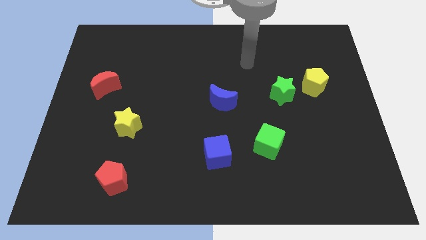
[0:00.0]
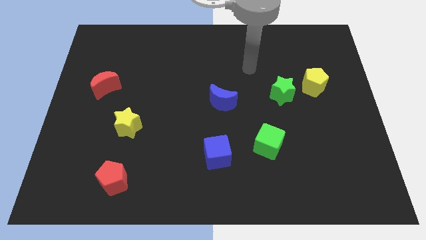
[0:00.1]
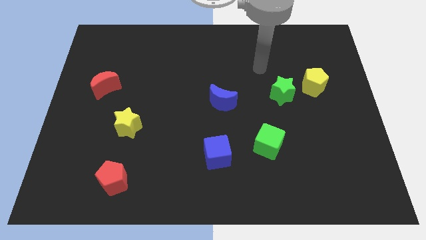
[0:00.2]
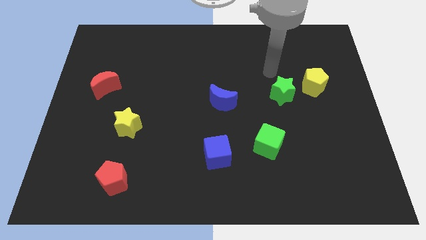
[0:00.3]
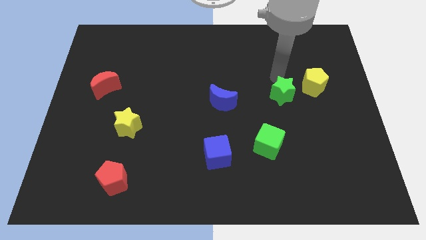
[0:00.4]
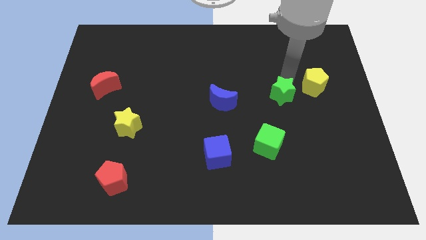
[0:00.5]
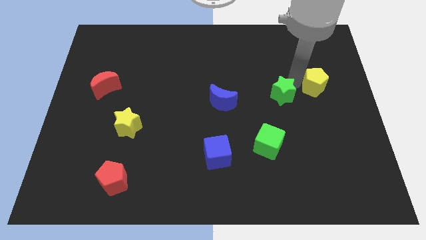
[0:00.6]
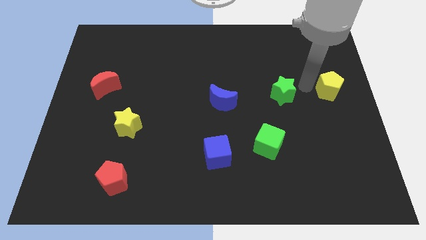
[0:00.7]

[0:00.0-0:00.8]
separate the green star from the yellow pentagon

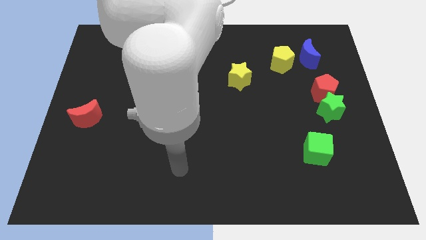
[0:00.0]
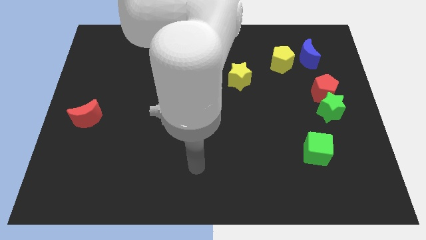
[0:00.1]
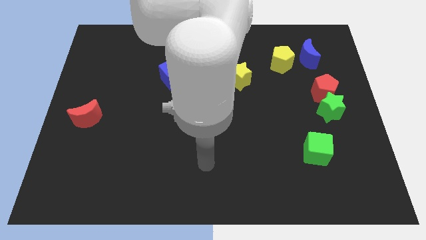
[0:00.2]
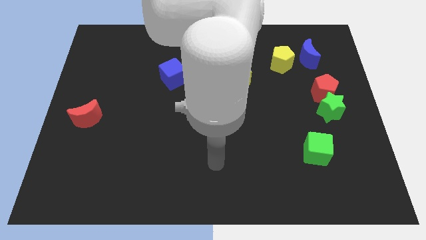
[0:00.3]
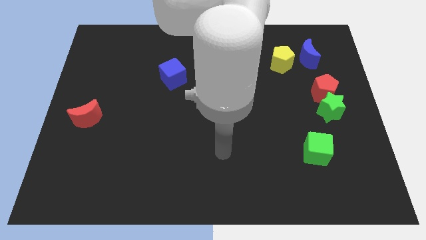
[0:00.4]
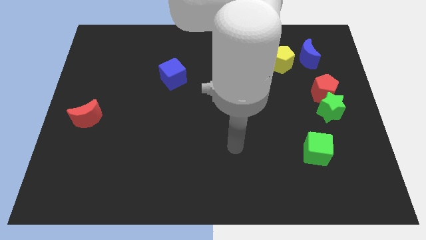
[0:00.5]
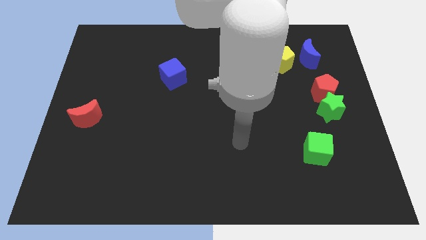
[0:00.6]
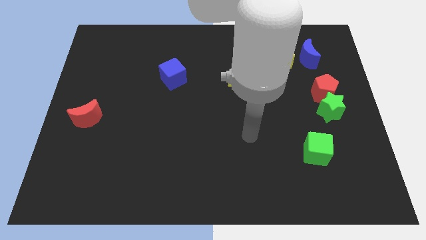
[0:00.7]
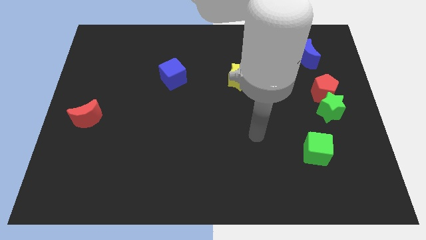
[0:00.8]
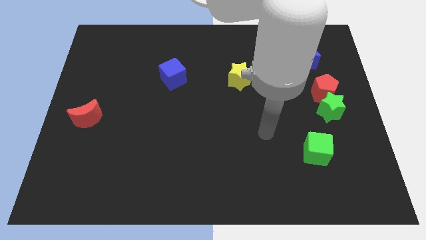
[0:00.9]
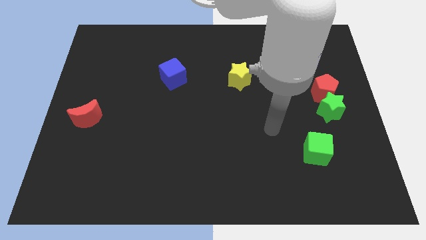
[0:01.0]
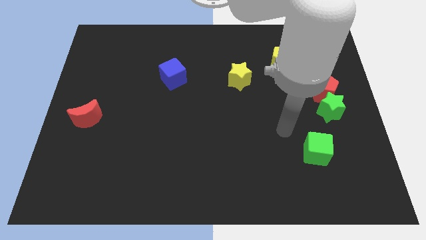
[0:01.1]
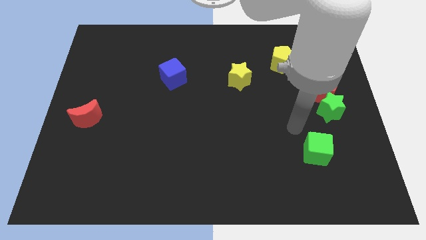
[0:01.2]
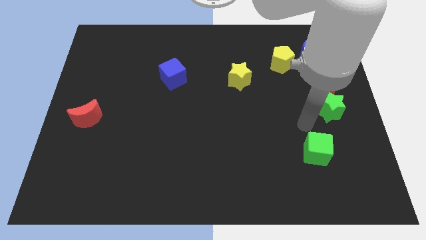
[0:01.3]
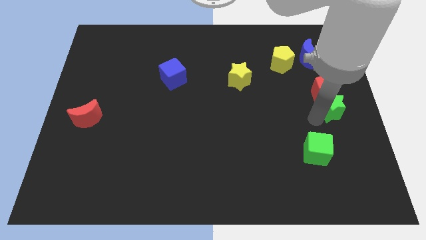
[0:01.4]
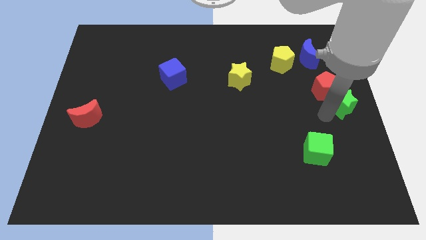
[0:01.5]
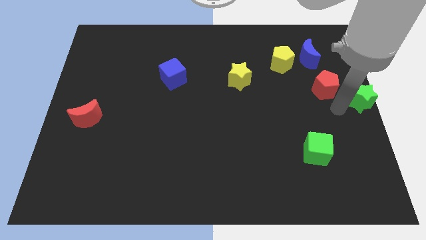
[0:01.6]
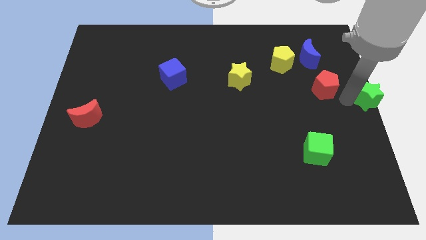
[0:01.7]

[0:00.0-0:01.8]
pull the red pentagon apart from the green star

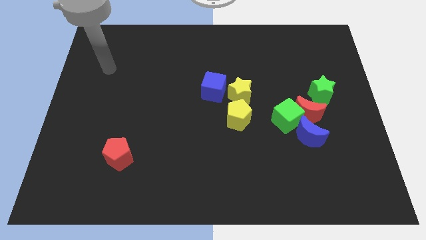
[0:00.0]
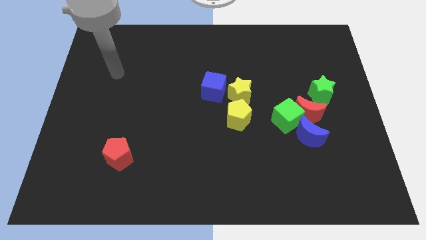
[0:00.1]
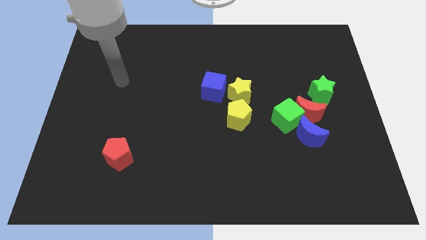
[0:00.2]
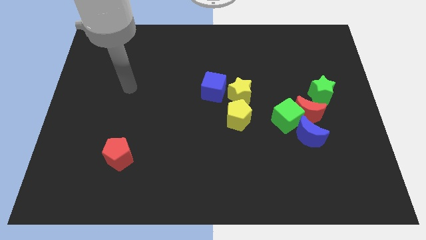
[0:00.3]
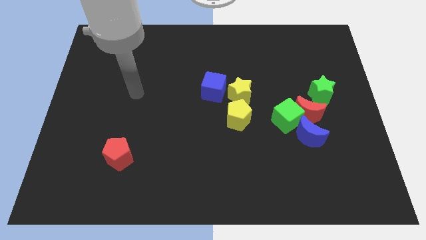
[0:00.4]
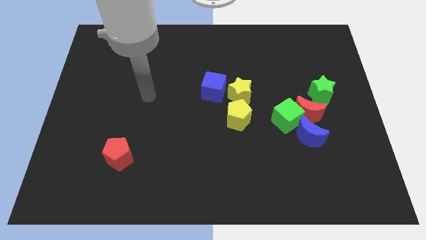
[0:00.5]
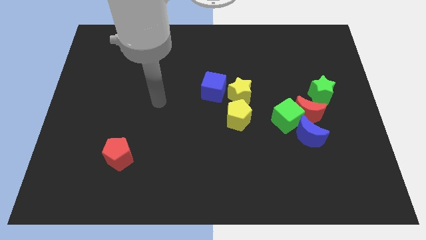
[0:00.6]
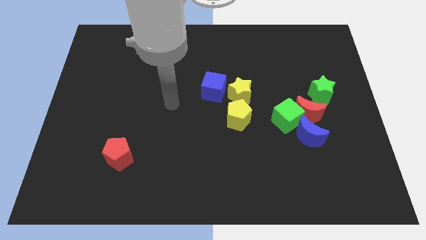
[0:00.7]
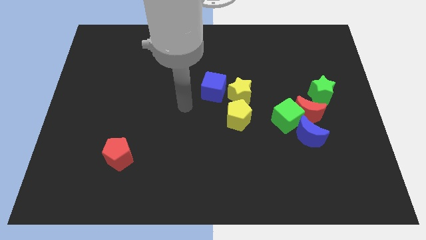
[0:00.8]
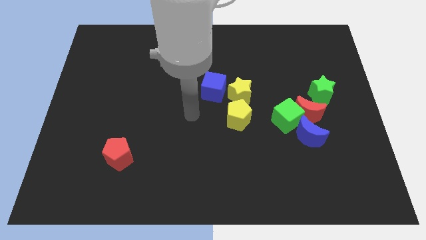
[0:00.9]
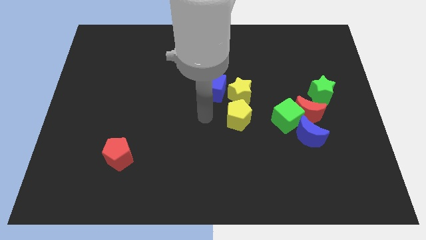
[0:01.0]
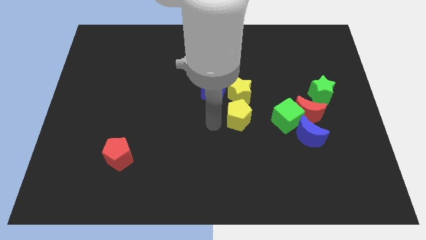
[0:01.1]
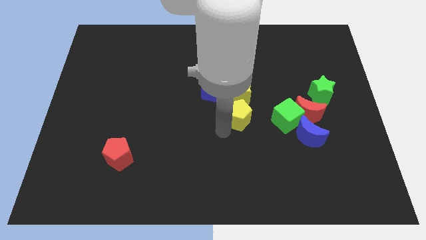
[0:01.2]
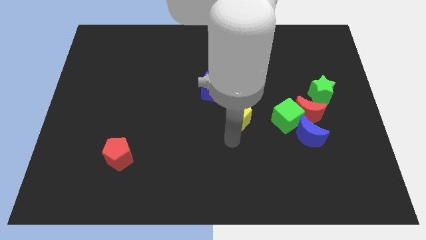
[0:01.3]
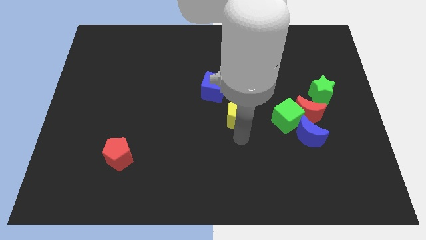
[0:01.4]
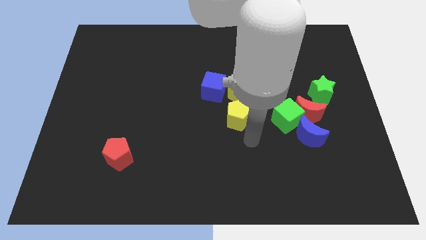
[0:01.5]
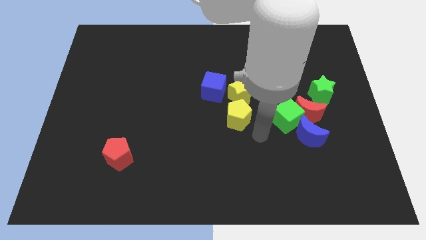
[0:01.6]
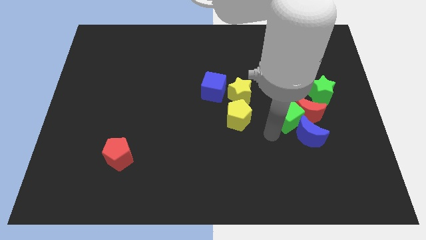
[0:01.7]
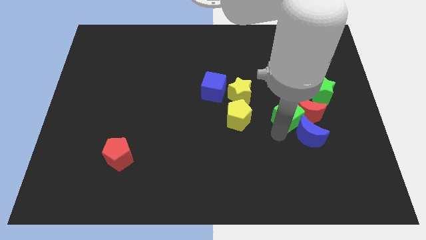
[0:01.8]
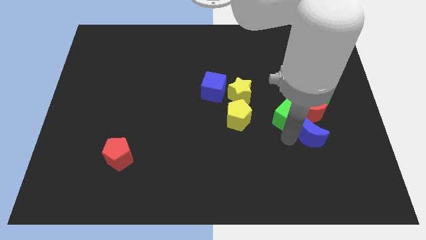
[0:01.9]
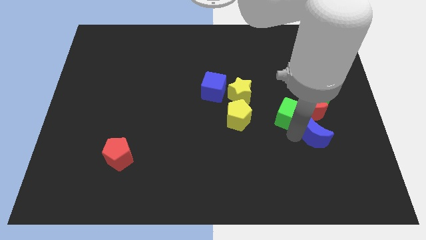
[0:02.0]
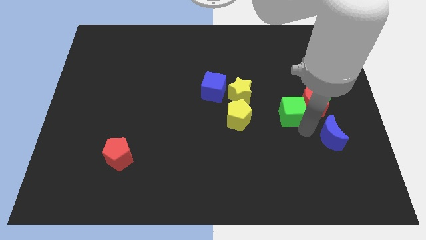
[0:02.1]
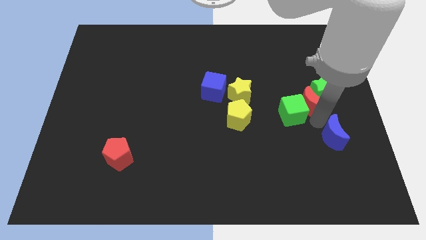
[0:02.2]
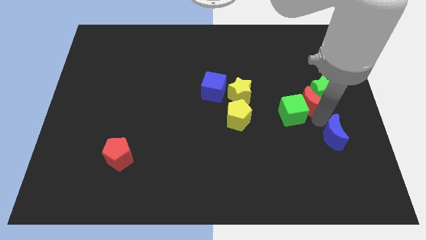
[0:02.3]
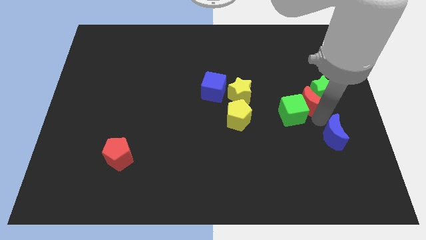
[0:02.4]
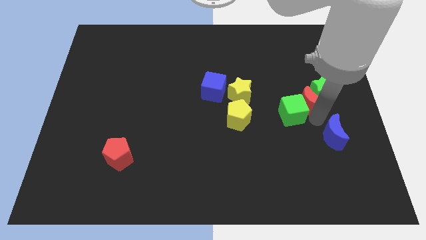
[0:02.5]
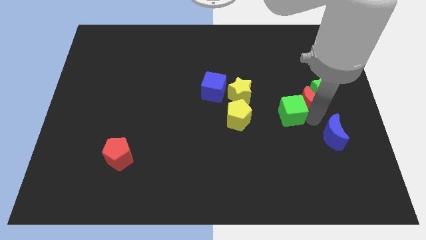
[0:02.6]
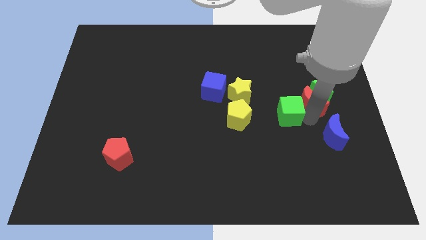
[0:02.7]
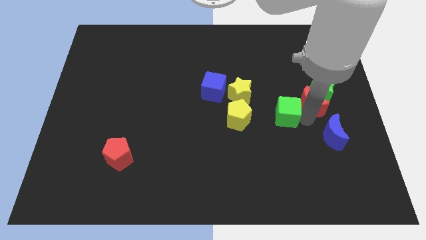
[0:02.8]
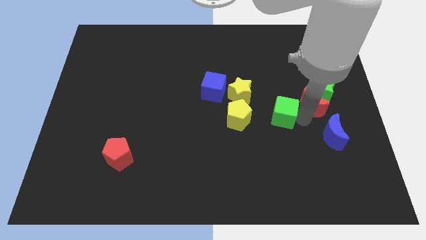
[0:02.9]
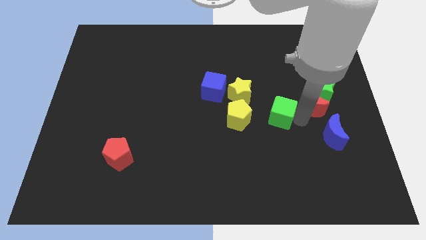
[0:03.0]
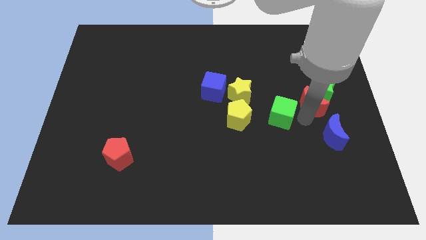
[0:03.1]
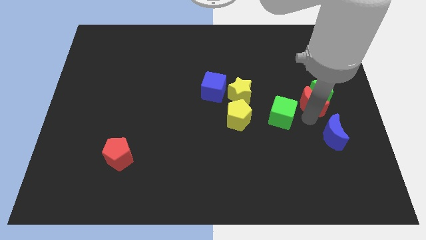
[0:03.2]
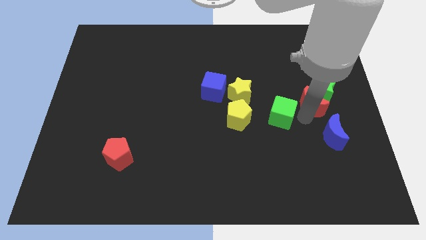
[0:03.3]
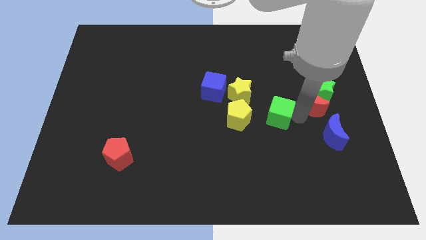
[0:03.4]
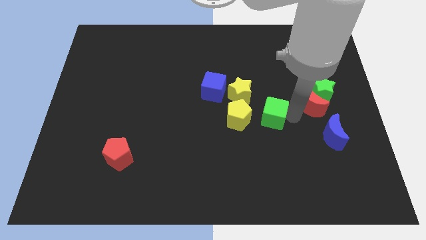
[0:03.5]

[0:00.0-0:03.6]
move the green cube away from the red moon and blue moon

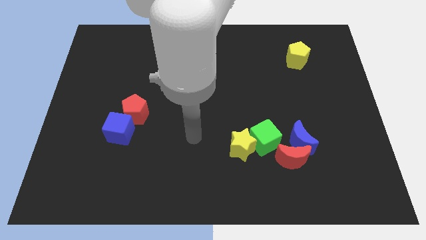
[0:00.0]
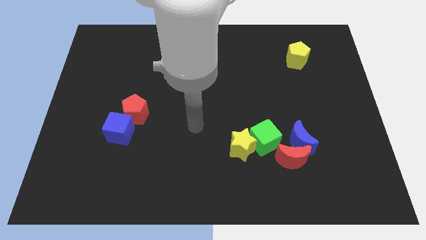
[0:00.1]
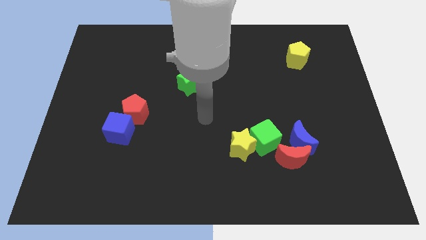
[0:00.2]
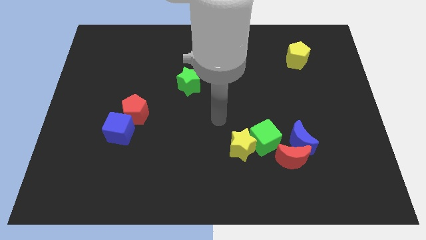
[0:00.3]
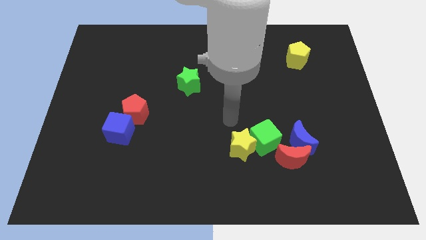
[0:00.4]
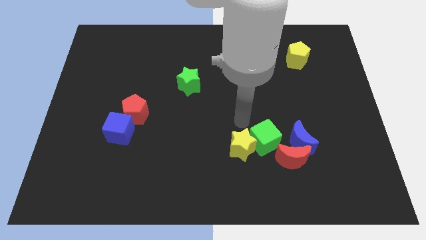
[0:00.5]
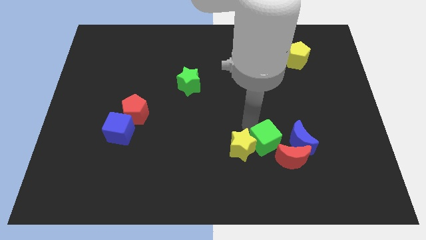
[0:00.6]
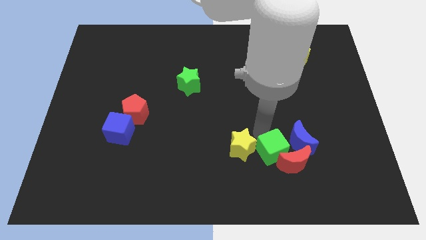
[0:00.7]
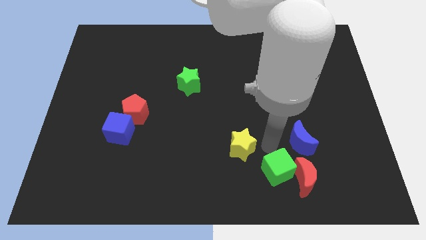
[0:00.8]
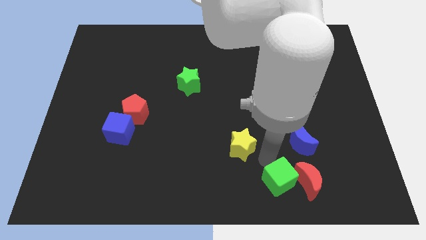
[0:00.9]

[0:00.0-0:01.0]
pull the yellow star apart from the green cube

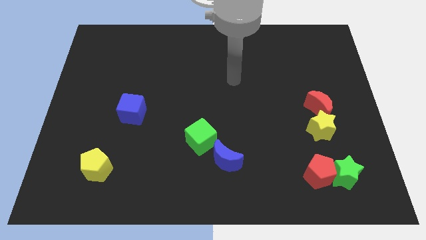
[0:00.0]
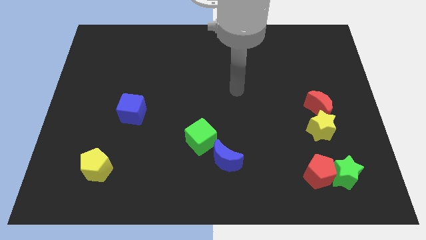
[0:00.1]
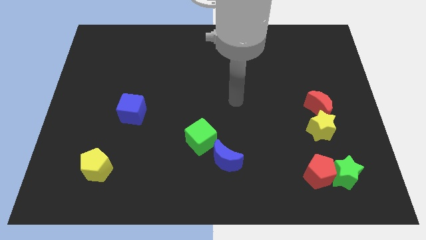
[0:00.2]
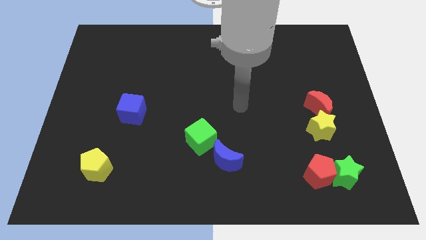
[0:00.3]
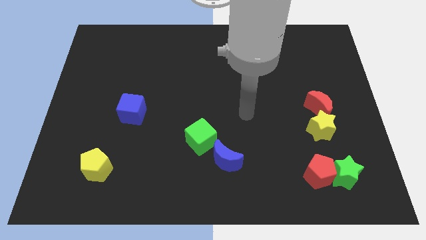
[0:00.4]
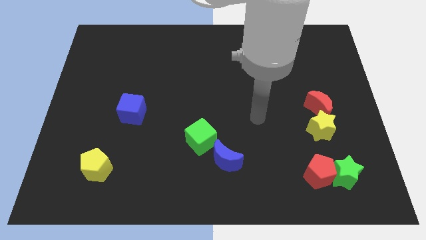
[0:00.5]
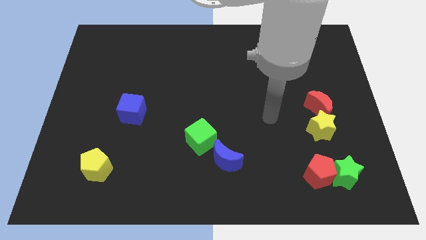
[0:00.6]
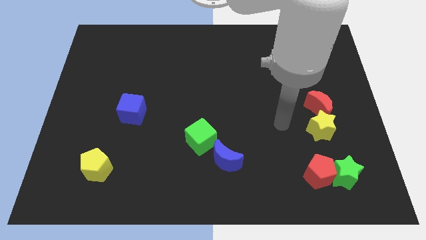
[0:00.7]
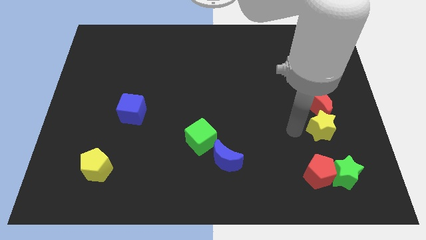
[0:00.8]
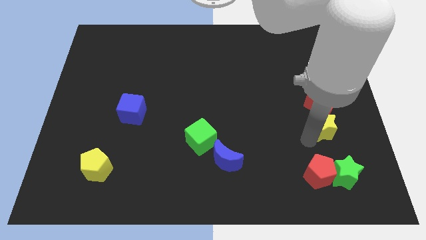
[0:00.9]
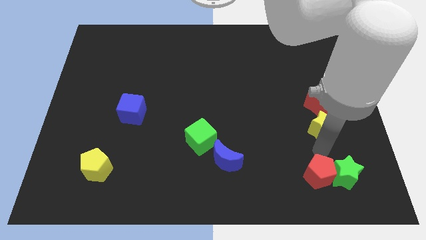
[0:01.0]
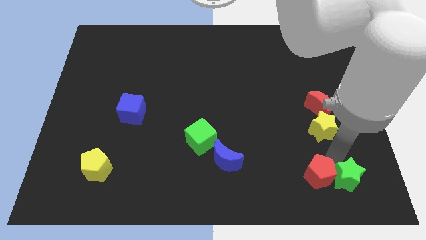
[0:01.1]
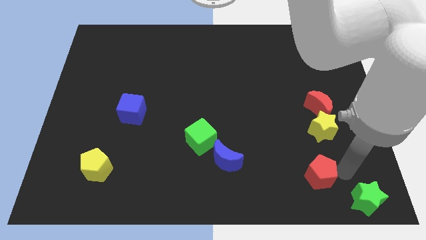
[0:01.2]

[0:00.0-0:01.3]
separate the red pentagon from the green star

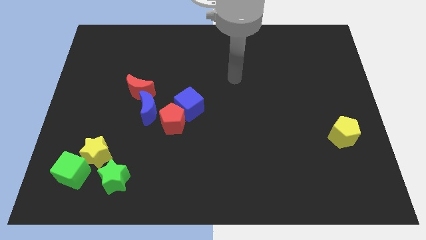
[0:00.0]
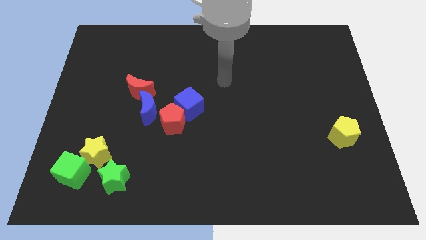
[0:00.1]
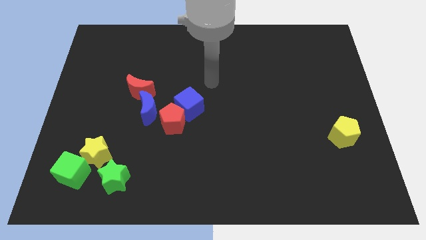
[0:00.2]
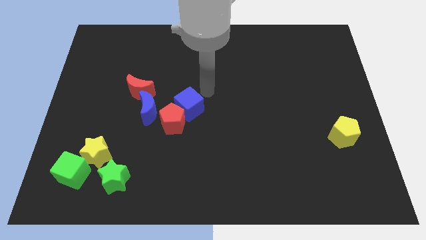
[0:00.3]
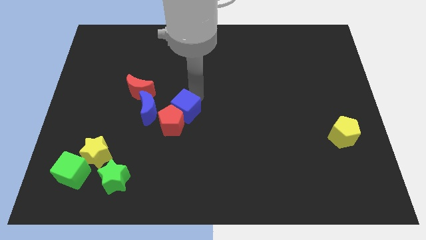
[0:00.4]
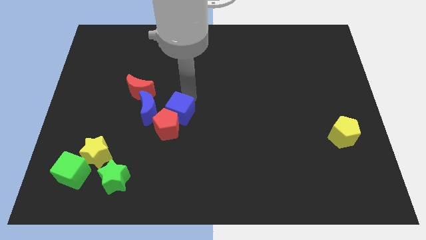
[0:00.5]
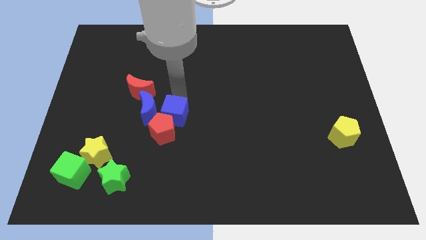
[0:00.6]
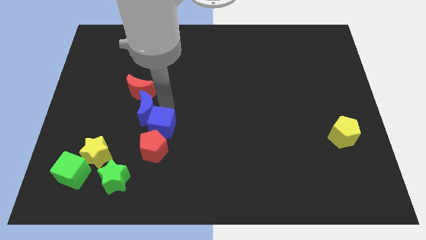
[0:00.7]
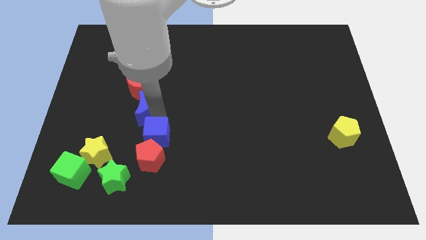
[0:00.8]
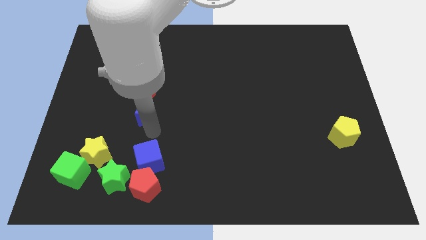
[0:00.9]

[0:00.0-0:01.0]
pull the red pentagon apart from the blue cube and blue moon

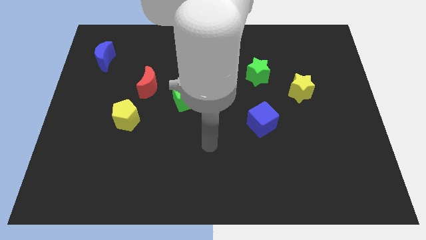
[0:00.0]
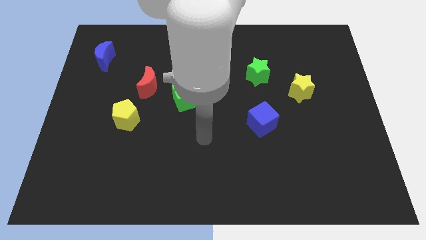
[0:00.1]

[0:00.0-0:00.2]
pull the red moon apart from the green cube
